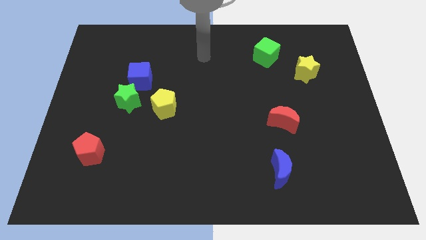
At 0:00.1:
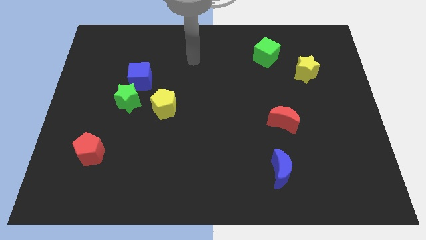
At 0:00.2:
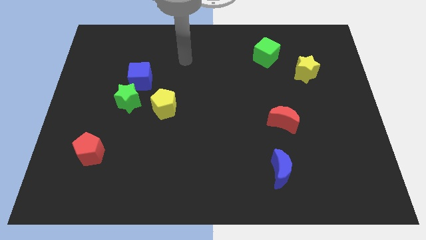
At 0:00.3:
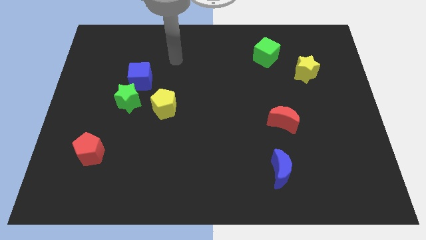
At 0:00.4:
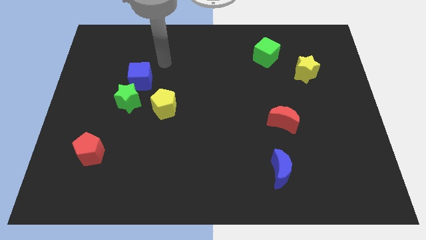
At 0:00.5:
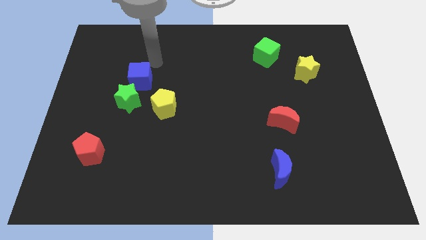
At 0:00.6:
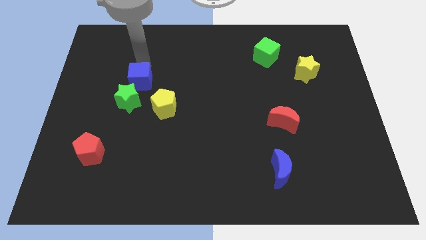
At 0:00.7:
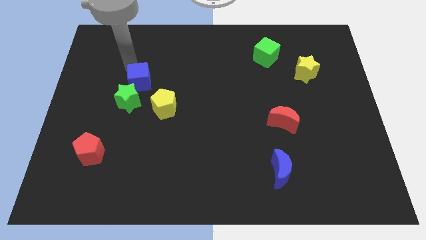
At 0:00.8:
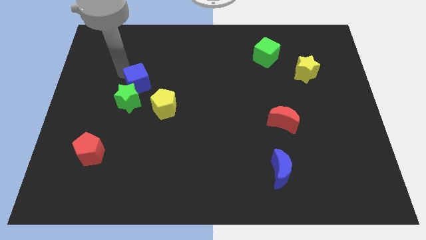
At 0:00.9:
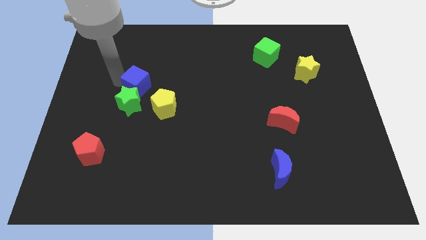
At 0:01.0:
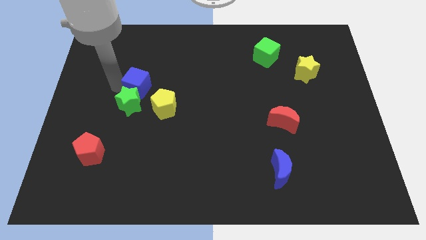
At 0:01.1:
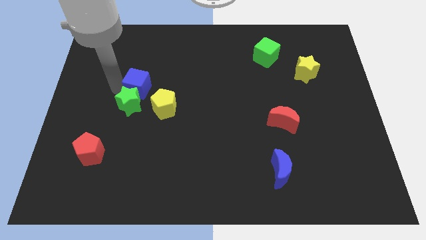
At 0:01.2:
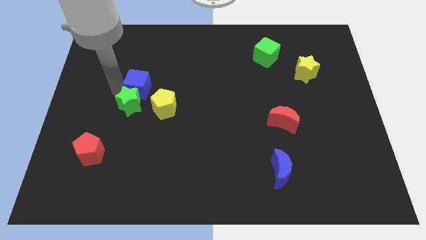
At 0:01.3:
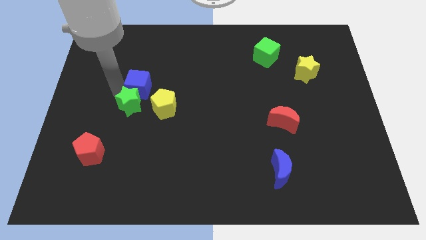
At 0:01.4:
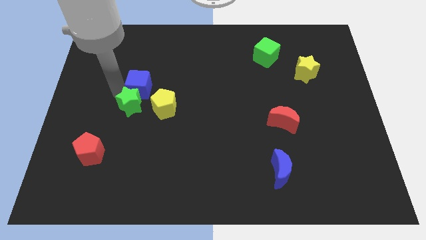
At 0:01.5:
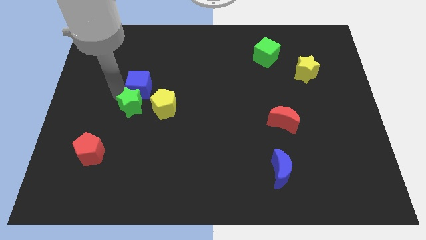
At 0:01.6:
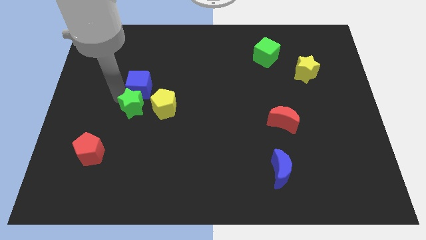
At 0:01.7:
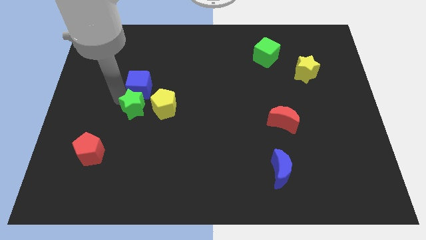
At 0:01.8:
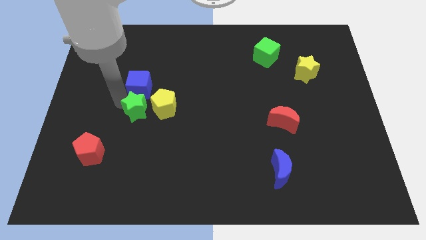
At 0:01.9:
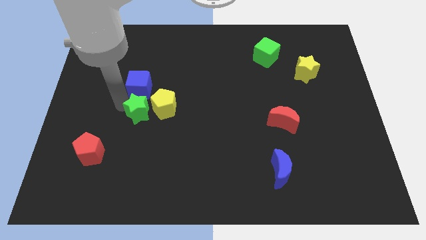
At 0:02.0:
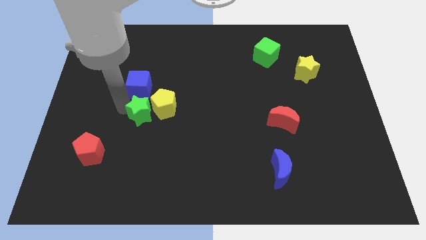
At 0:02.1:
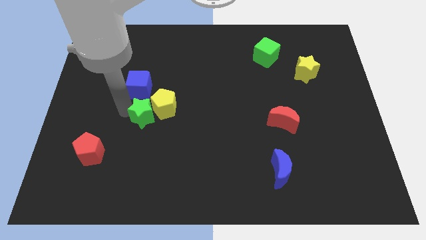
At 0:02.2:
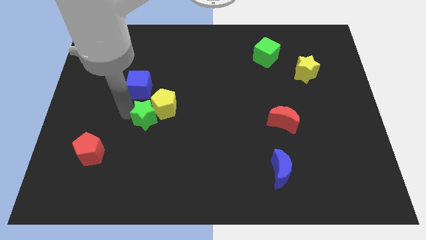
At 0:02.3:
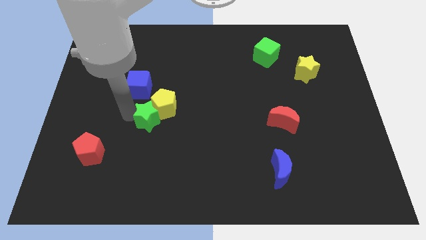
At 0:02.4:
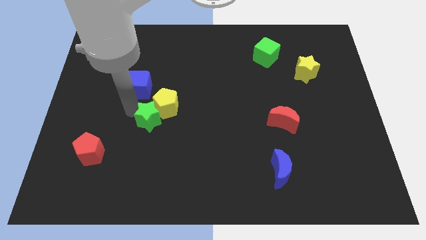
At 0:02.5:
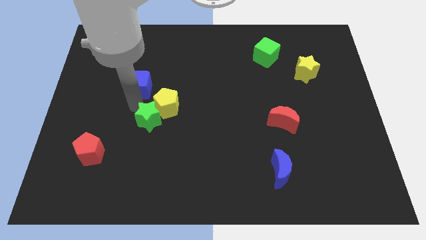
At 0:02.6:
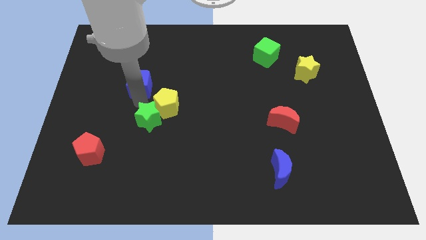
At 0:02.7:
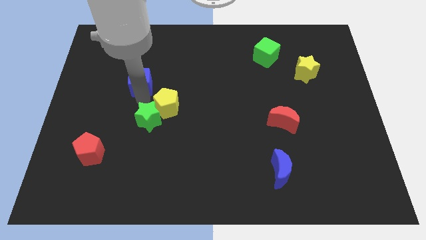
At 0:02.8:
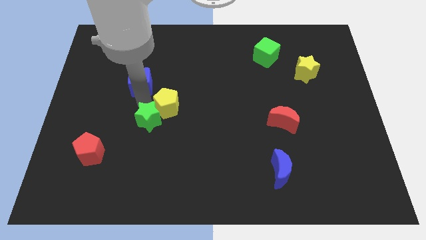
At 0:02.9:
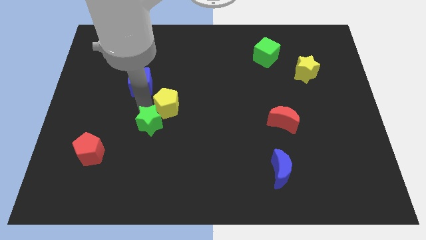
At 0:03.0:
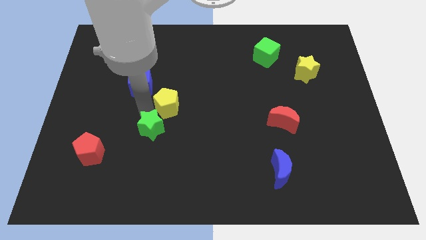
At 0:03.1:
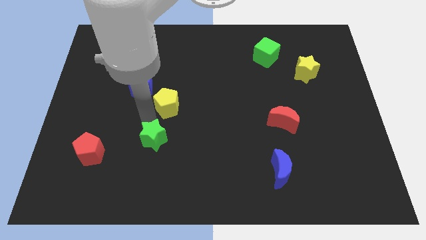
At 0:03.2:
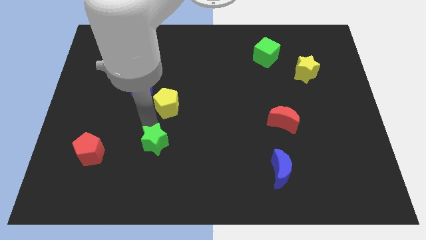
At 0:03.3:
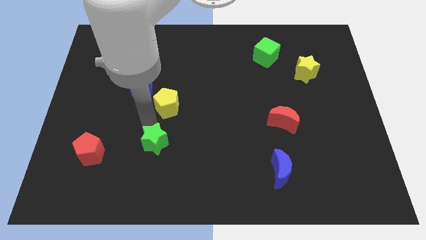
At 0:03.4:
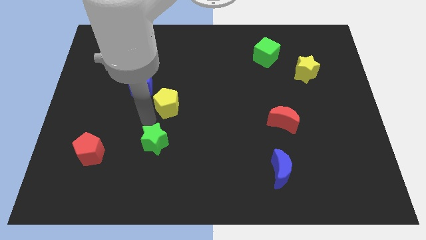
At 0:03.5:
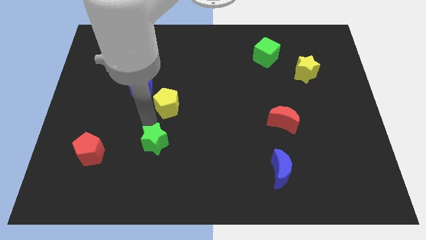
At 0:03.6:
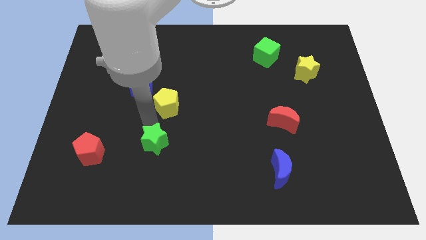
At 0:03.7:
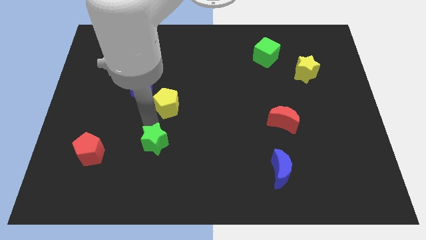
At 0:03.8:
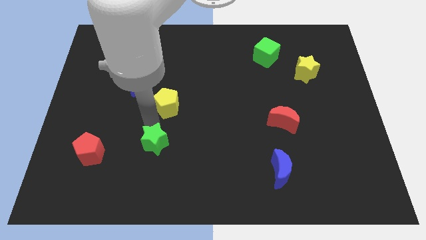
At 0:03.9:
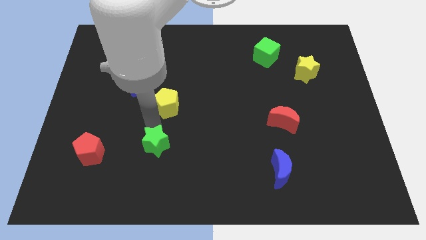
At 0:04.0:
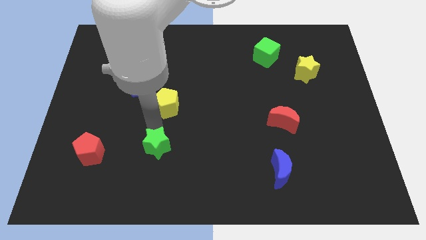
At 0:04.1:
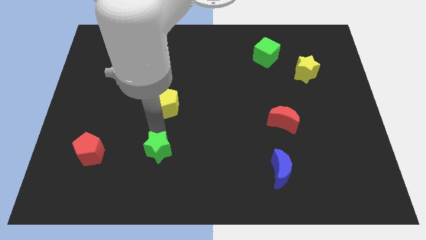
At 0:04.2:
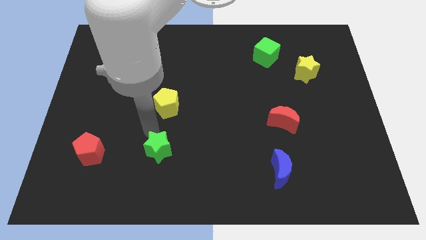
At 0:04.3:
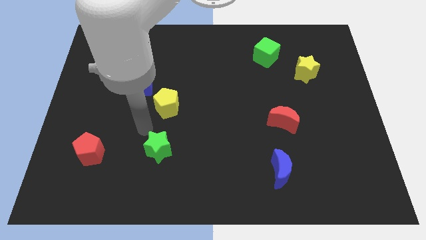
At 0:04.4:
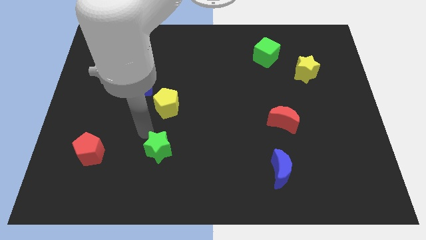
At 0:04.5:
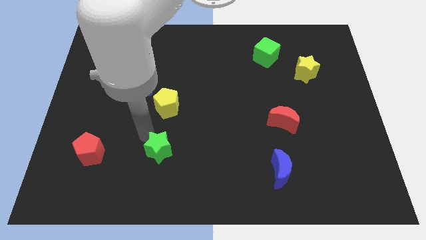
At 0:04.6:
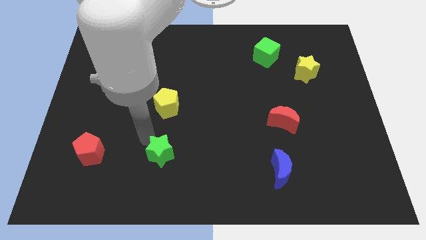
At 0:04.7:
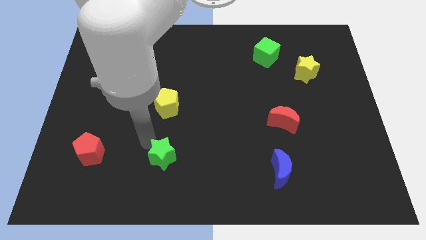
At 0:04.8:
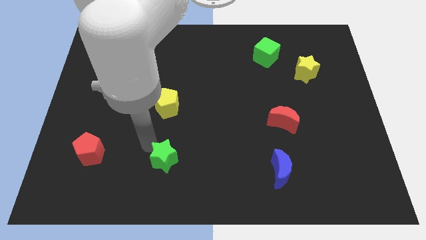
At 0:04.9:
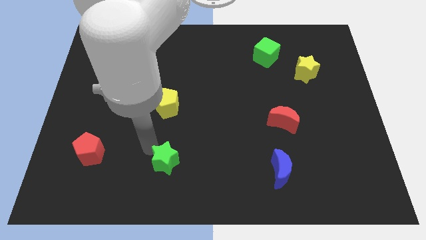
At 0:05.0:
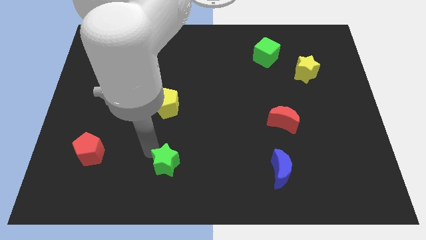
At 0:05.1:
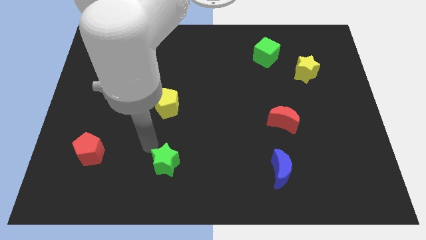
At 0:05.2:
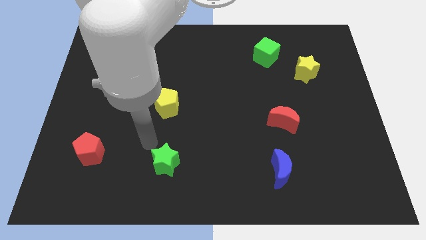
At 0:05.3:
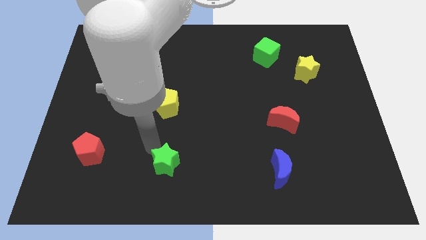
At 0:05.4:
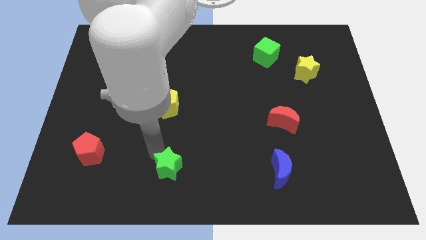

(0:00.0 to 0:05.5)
slide the green star to the bottom side

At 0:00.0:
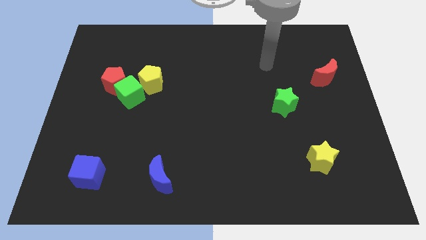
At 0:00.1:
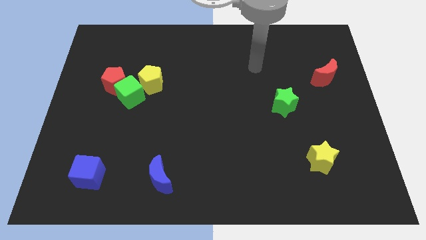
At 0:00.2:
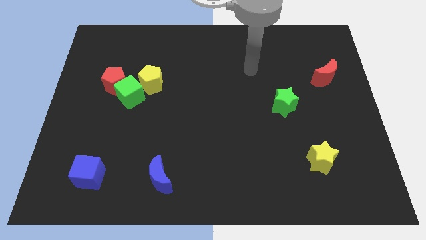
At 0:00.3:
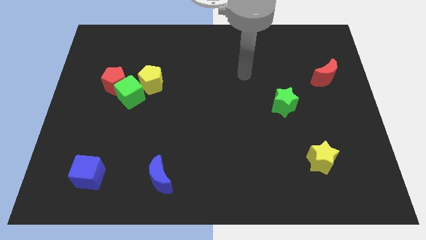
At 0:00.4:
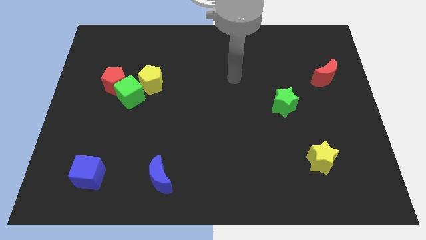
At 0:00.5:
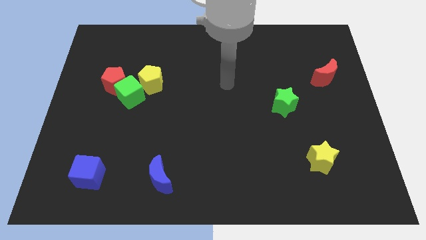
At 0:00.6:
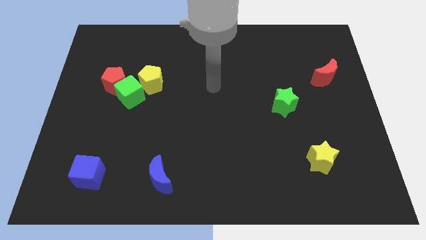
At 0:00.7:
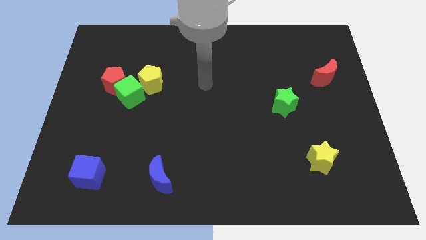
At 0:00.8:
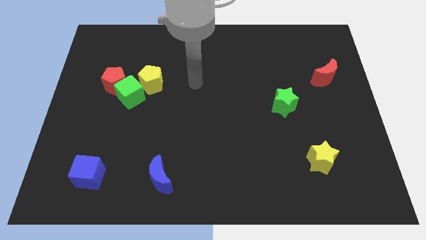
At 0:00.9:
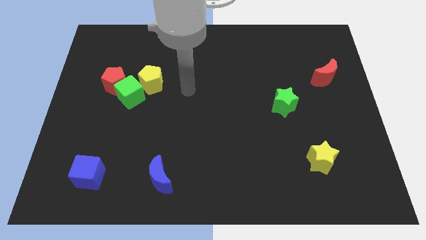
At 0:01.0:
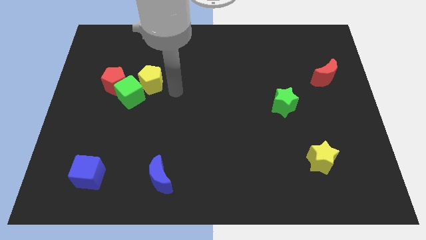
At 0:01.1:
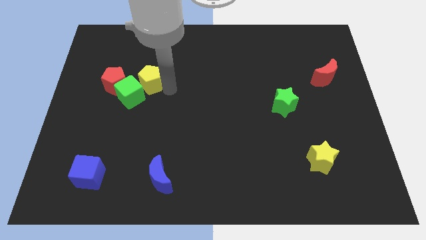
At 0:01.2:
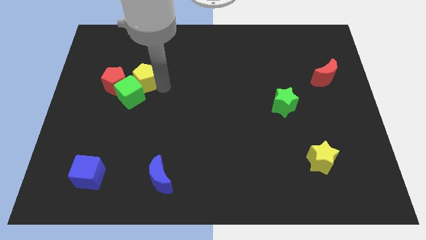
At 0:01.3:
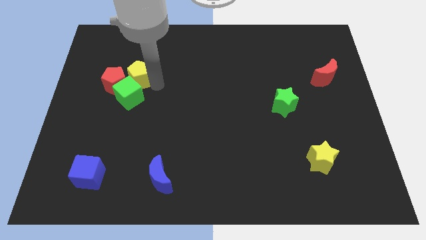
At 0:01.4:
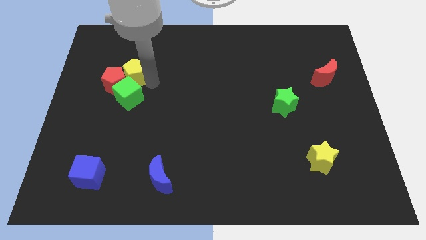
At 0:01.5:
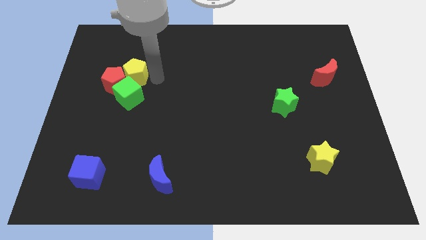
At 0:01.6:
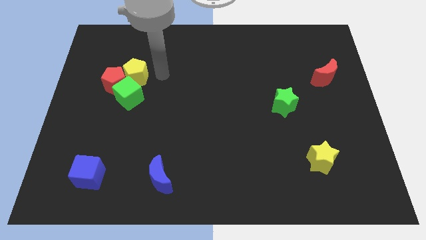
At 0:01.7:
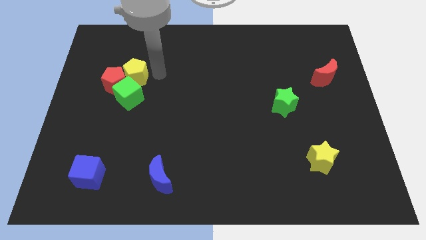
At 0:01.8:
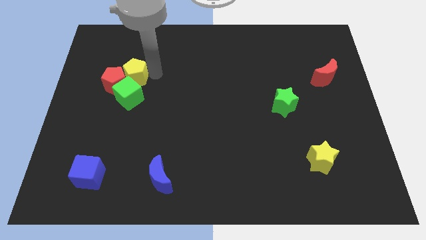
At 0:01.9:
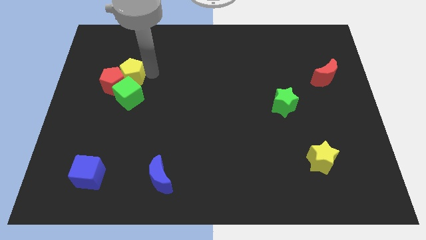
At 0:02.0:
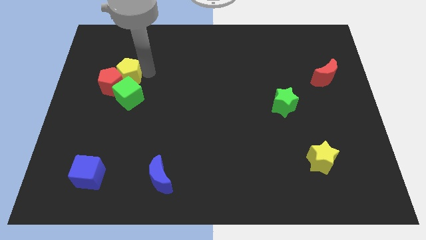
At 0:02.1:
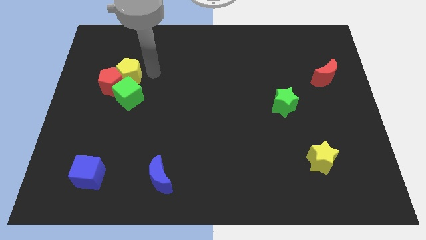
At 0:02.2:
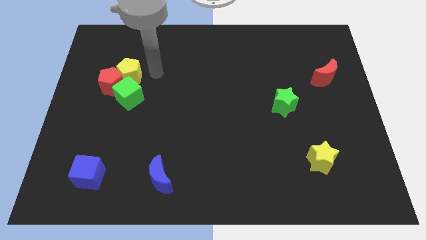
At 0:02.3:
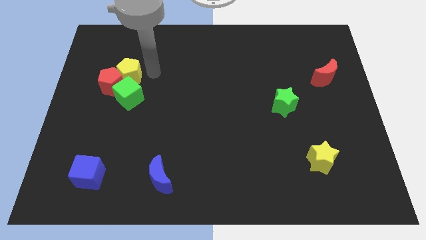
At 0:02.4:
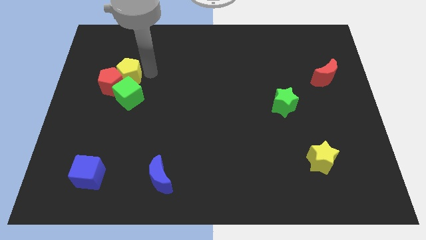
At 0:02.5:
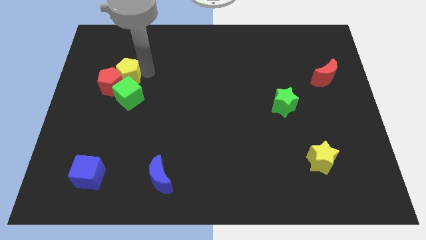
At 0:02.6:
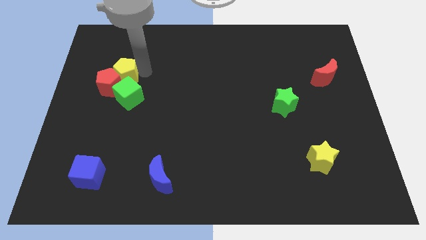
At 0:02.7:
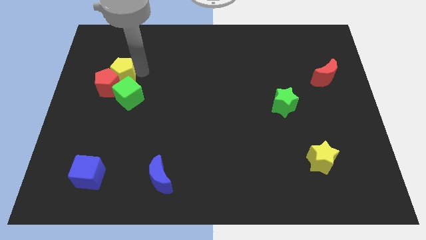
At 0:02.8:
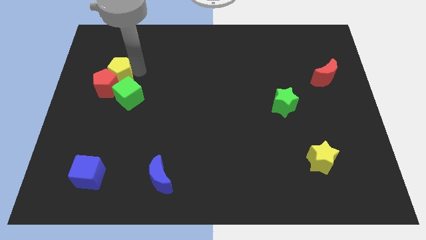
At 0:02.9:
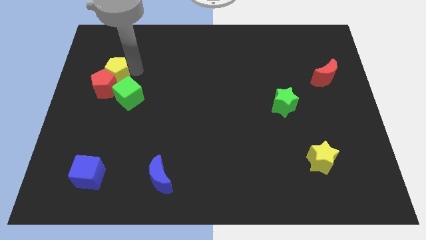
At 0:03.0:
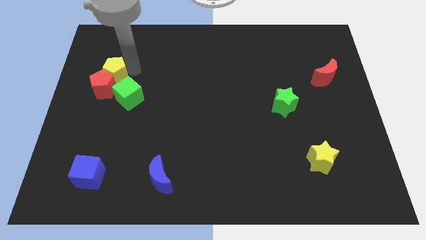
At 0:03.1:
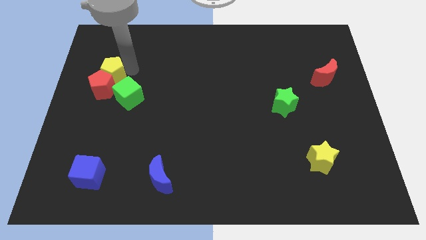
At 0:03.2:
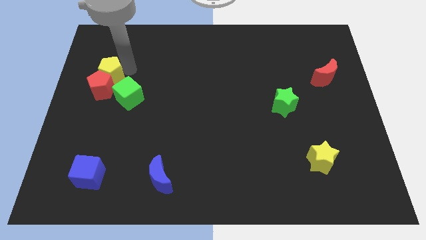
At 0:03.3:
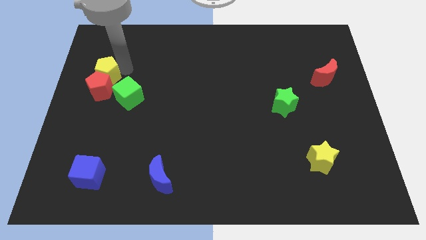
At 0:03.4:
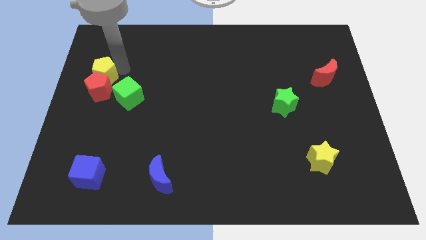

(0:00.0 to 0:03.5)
slide the yellow pentagon to the left side
